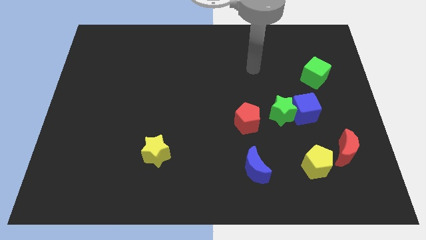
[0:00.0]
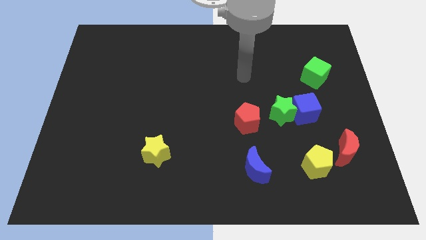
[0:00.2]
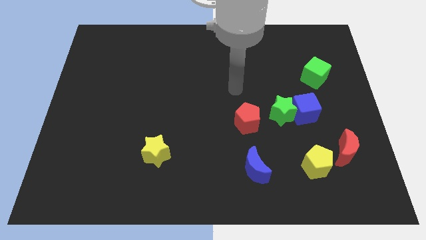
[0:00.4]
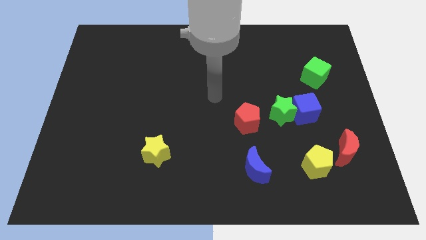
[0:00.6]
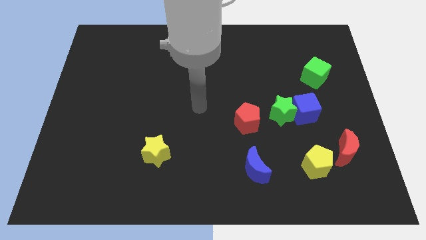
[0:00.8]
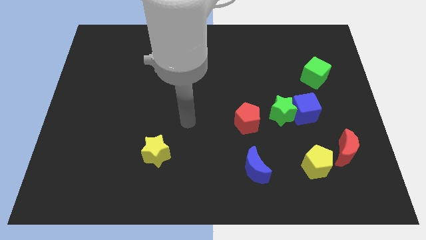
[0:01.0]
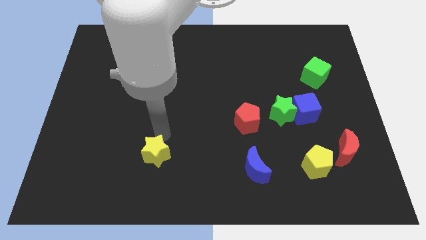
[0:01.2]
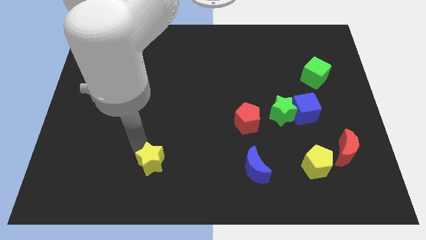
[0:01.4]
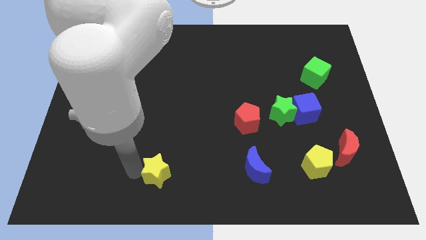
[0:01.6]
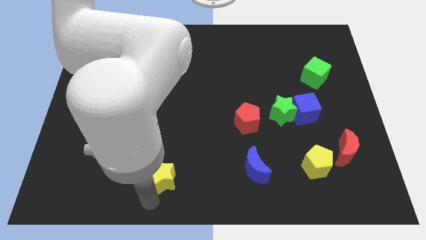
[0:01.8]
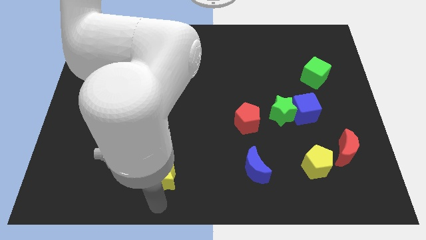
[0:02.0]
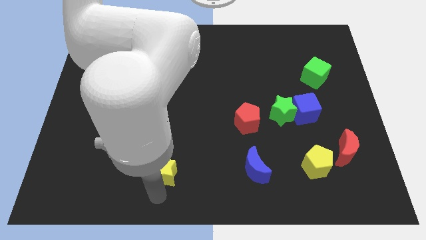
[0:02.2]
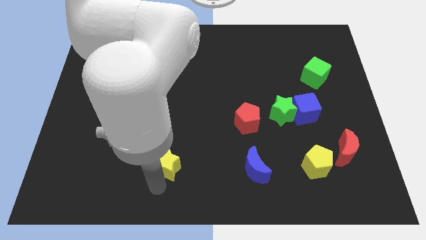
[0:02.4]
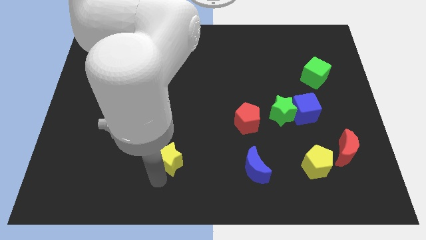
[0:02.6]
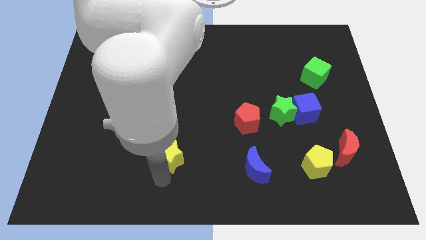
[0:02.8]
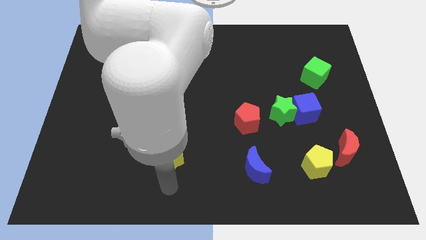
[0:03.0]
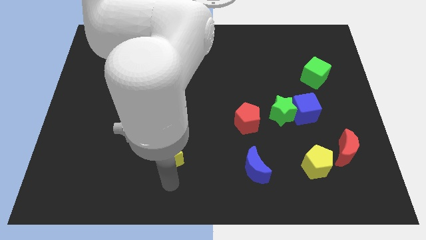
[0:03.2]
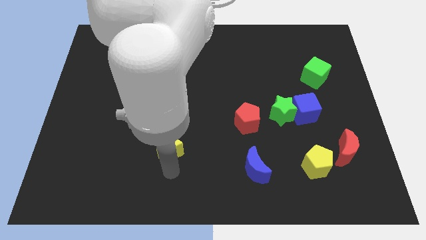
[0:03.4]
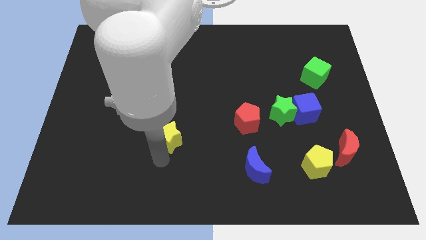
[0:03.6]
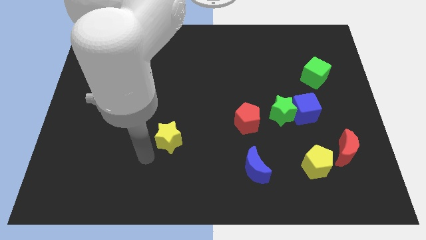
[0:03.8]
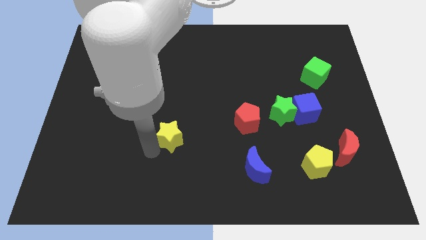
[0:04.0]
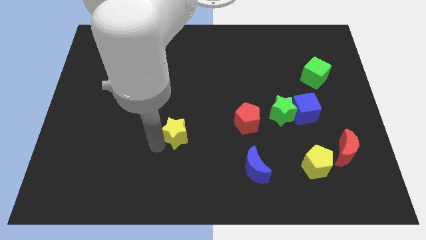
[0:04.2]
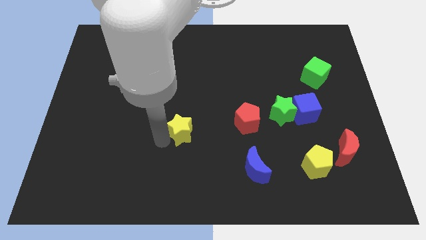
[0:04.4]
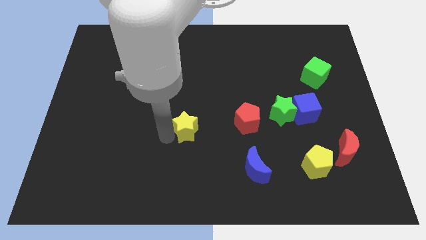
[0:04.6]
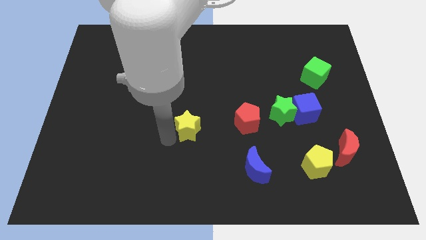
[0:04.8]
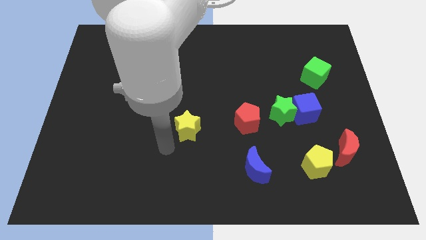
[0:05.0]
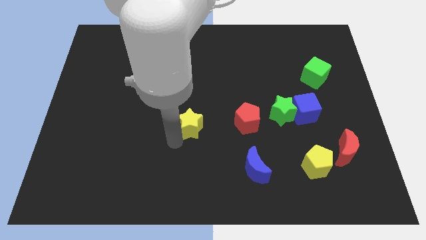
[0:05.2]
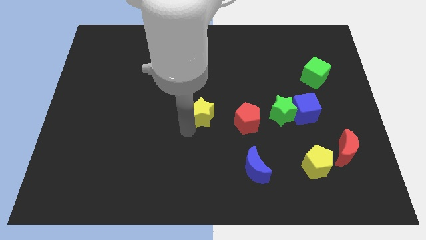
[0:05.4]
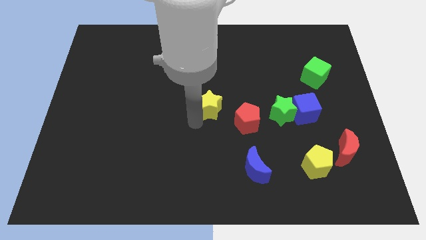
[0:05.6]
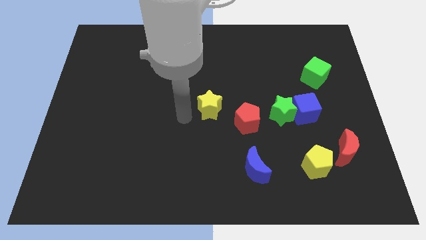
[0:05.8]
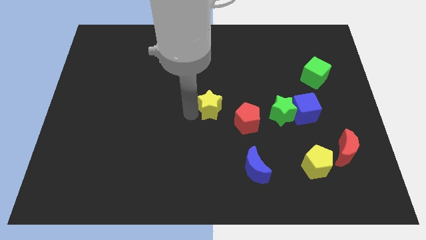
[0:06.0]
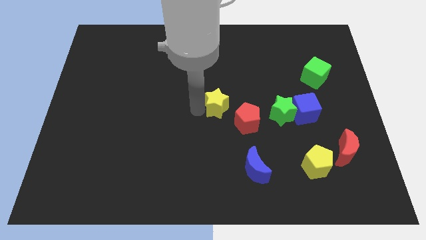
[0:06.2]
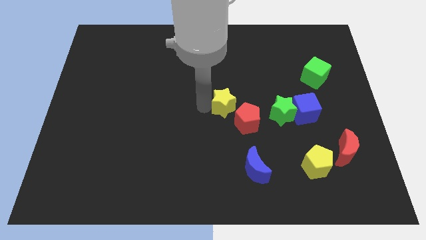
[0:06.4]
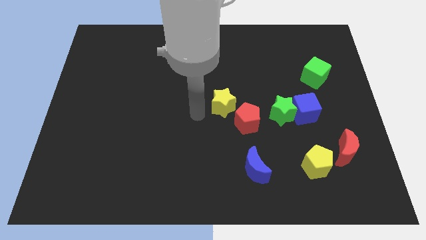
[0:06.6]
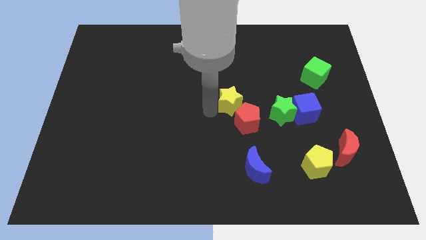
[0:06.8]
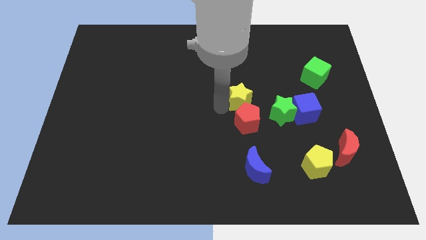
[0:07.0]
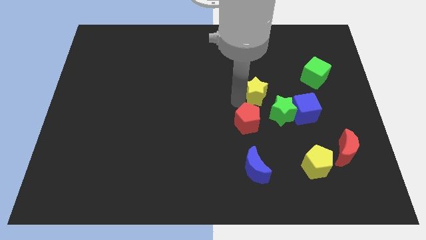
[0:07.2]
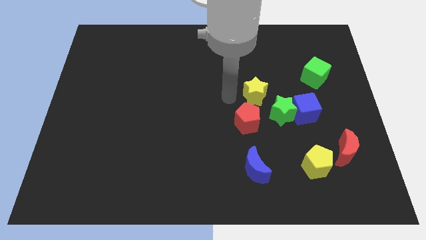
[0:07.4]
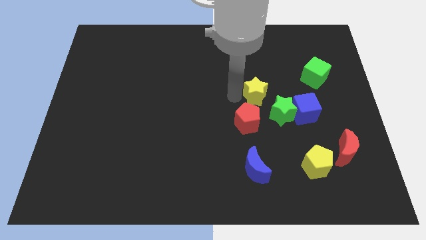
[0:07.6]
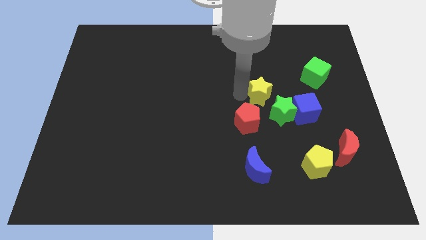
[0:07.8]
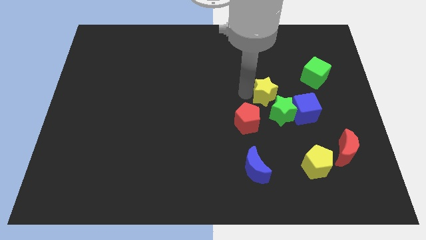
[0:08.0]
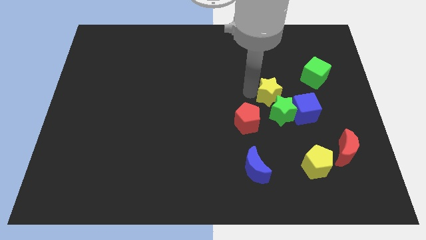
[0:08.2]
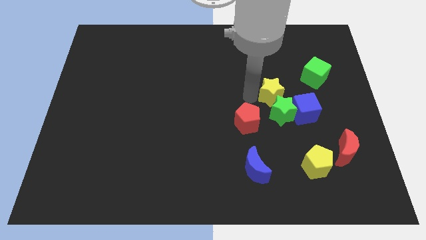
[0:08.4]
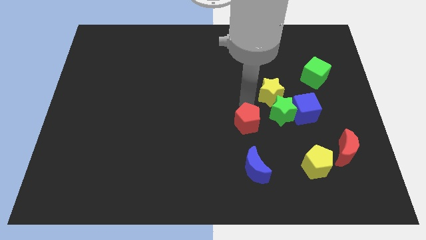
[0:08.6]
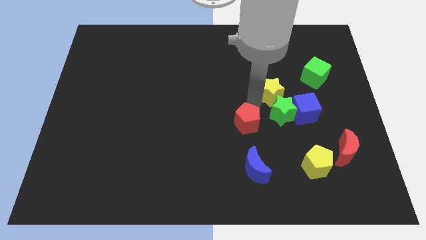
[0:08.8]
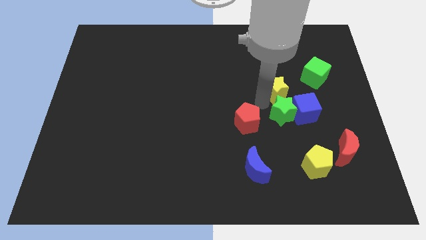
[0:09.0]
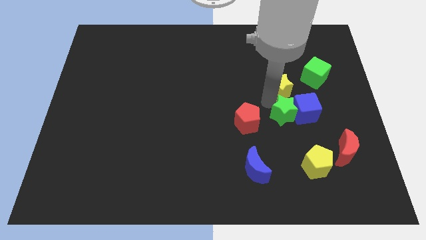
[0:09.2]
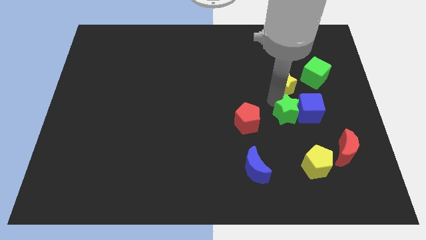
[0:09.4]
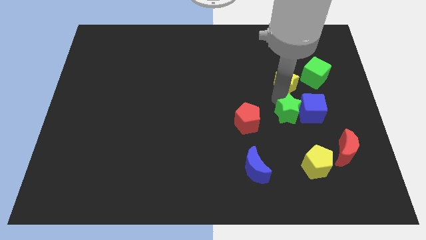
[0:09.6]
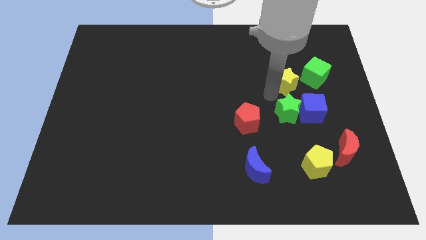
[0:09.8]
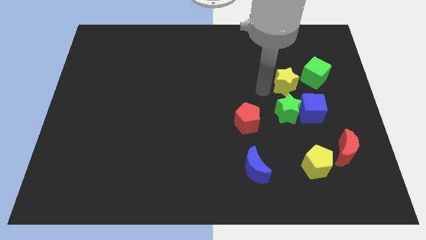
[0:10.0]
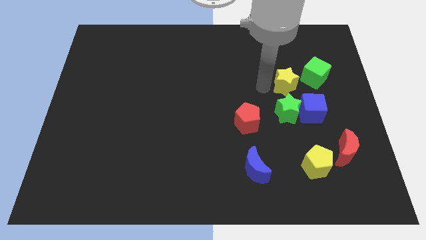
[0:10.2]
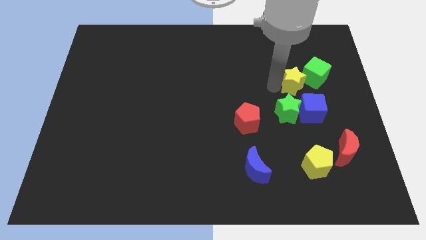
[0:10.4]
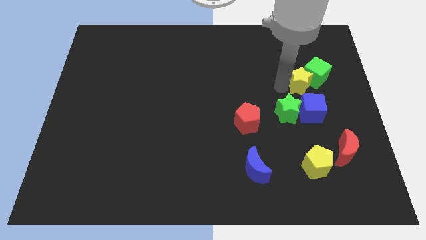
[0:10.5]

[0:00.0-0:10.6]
move the yellow star towards the green cube

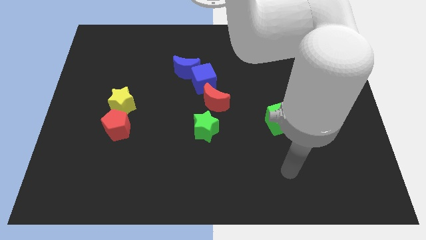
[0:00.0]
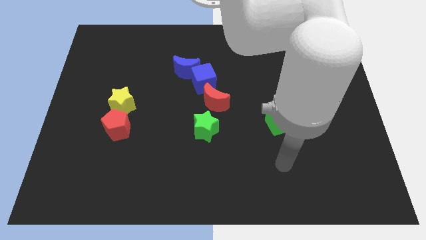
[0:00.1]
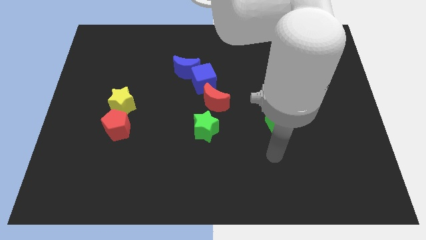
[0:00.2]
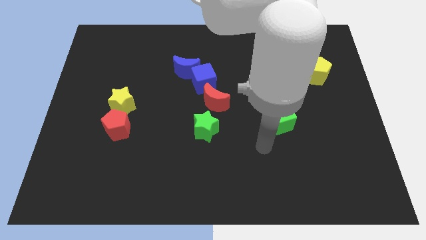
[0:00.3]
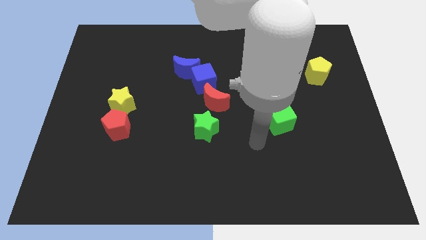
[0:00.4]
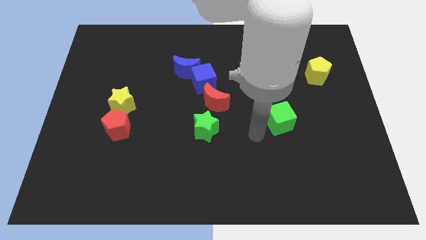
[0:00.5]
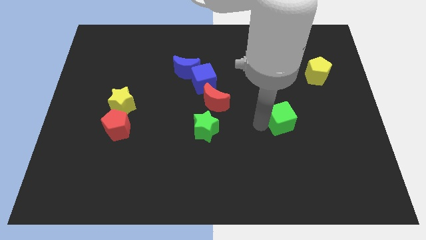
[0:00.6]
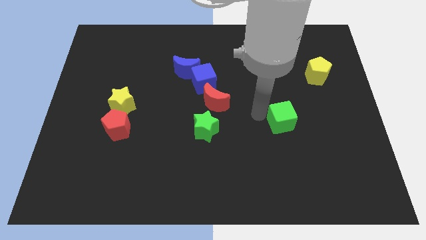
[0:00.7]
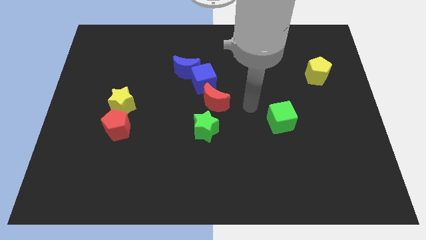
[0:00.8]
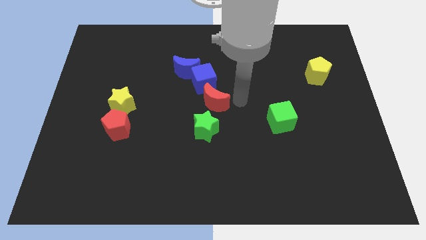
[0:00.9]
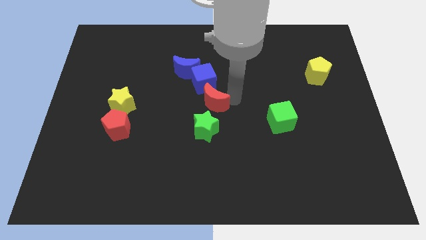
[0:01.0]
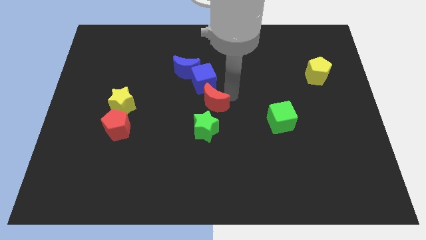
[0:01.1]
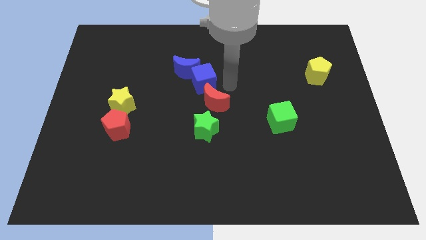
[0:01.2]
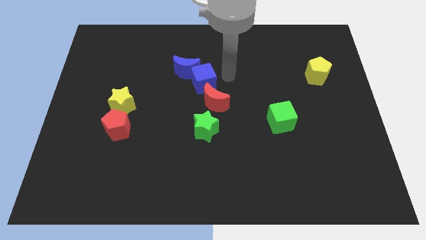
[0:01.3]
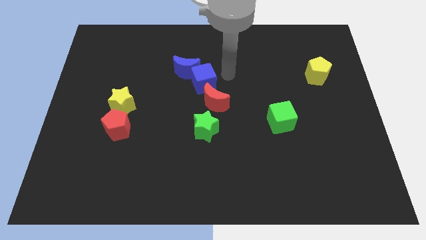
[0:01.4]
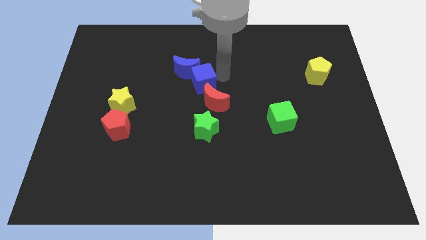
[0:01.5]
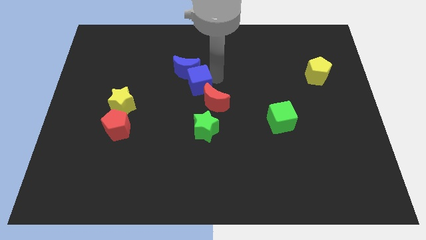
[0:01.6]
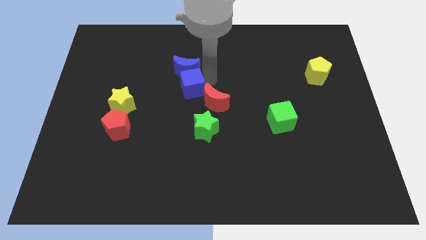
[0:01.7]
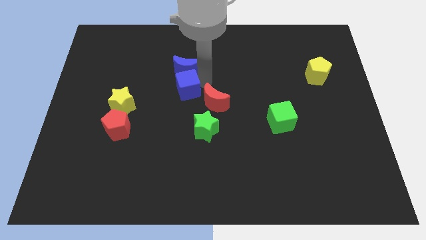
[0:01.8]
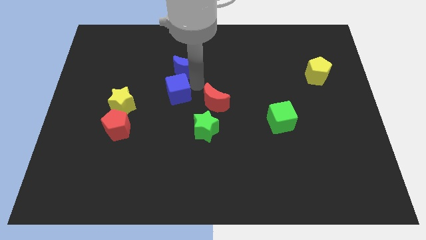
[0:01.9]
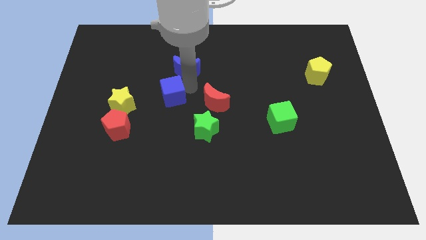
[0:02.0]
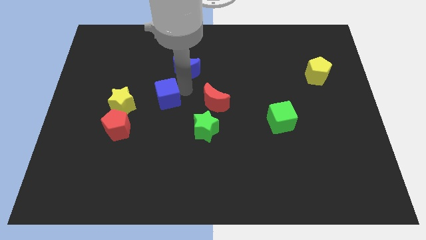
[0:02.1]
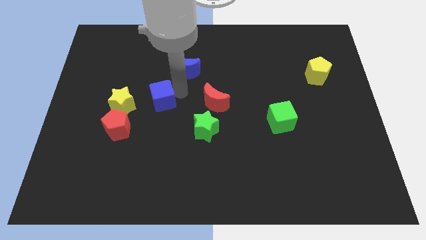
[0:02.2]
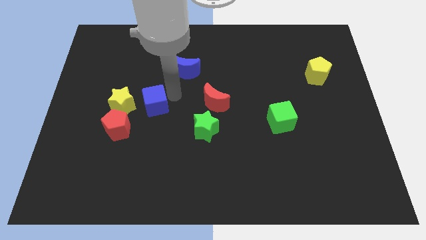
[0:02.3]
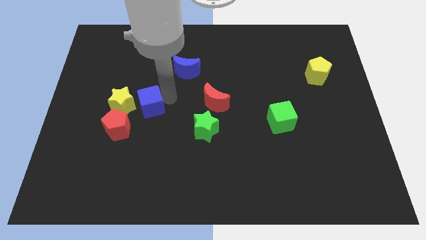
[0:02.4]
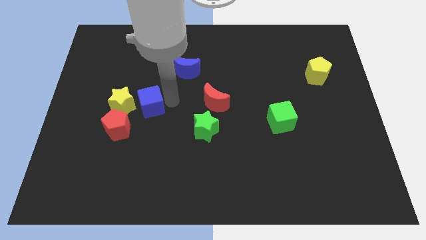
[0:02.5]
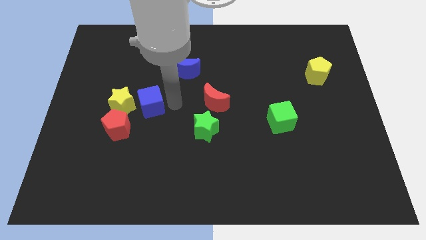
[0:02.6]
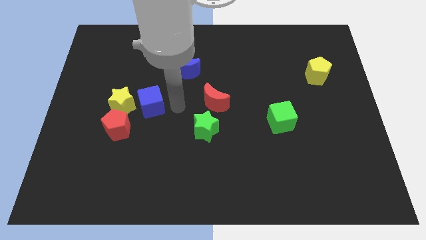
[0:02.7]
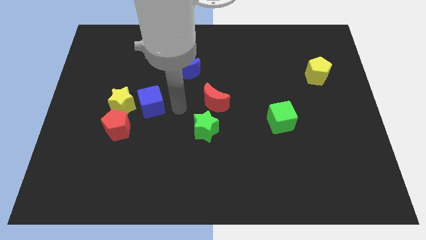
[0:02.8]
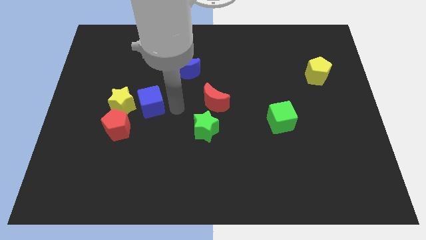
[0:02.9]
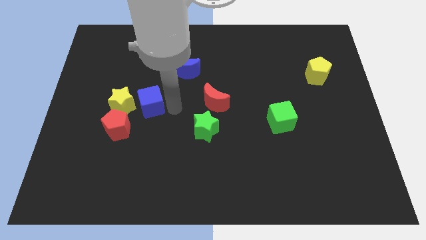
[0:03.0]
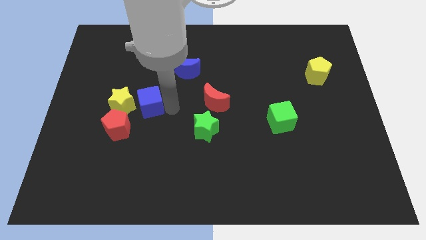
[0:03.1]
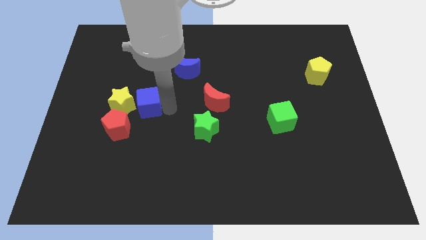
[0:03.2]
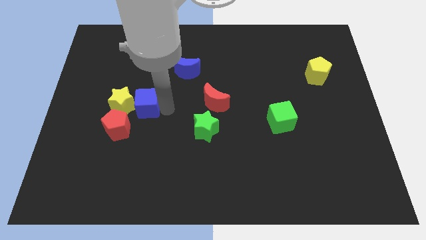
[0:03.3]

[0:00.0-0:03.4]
slide the blue cube to the yellow star
